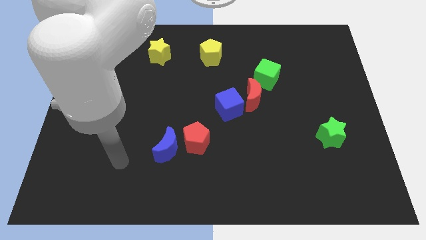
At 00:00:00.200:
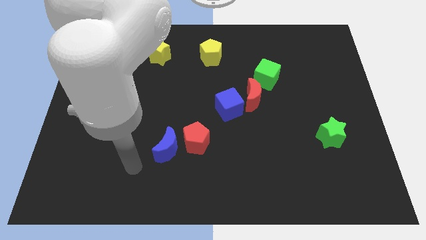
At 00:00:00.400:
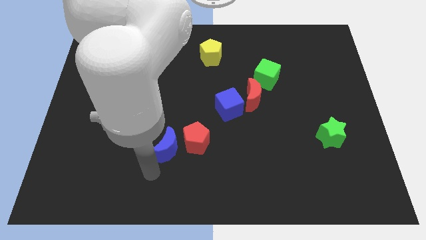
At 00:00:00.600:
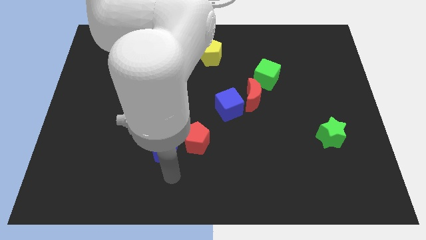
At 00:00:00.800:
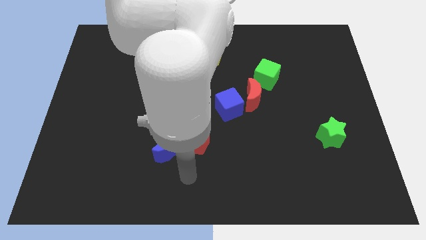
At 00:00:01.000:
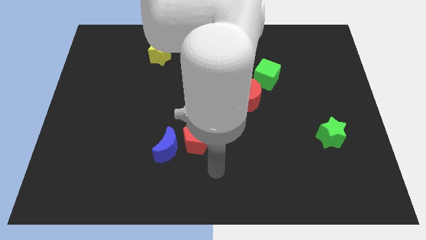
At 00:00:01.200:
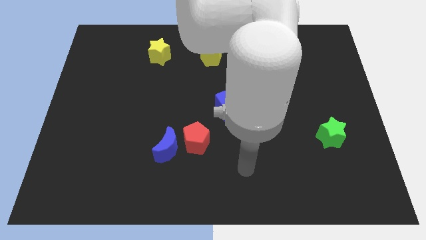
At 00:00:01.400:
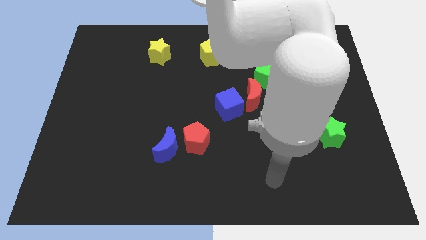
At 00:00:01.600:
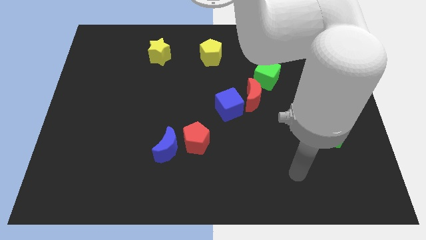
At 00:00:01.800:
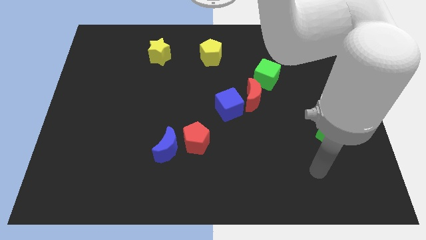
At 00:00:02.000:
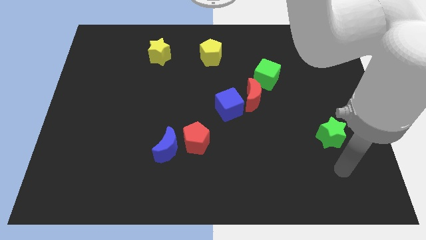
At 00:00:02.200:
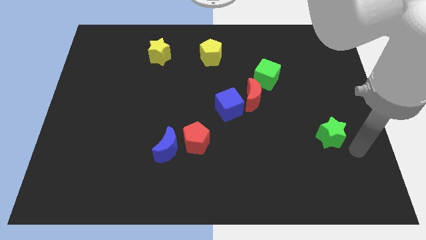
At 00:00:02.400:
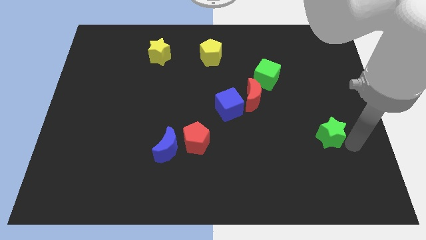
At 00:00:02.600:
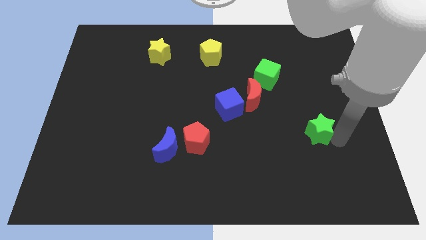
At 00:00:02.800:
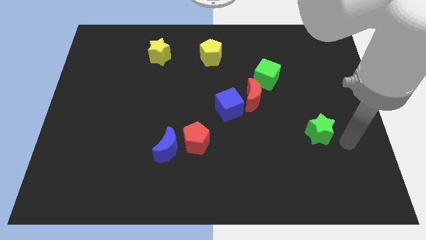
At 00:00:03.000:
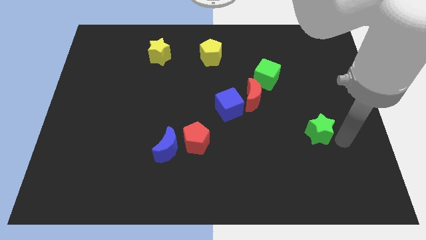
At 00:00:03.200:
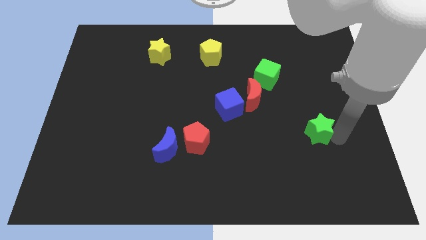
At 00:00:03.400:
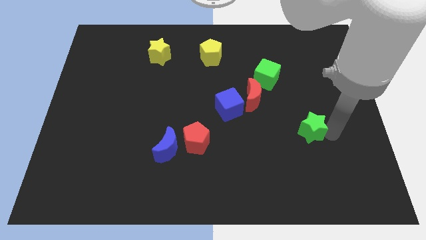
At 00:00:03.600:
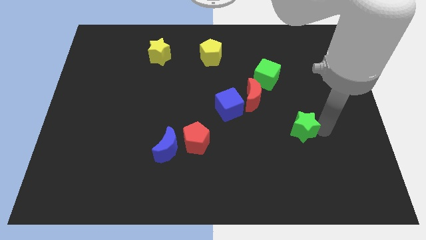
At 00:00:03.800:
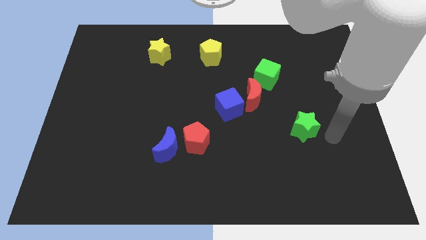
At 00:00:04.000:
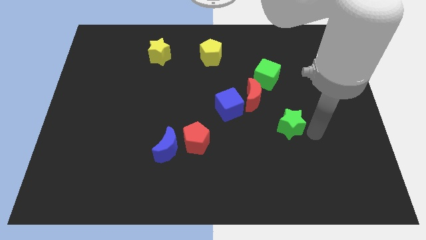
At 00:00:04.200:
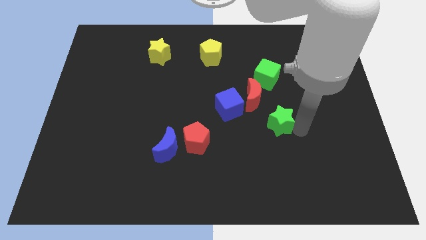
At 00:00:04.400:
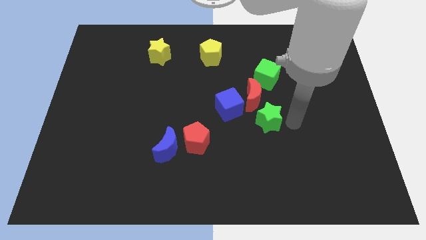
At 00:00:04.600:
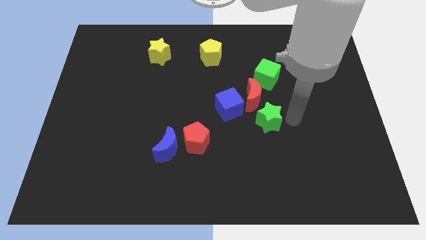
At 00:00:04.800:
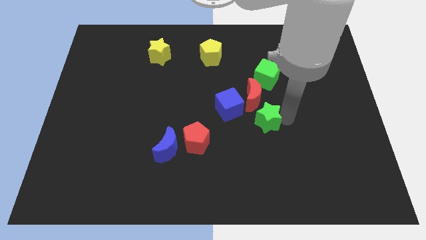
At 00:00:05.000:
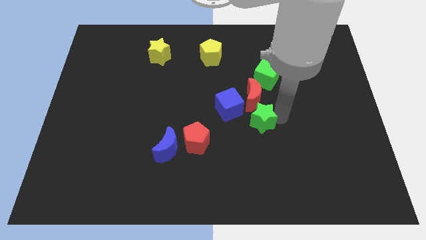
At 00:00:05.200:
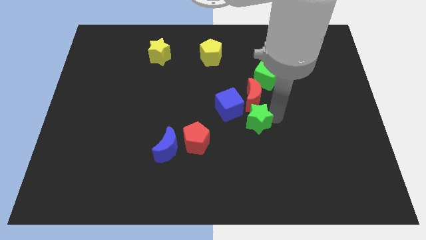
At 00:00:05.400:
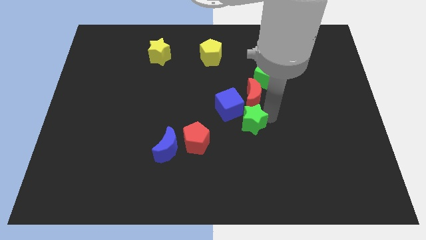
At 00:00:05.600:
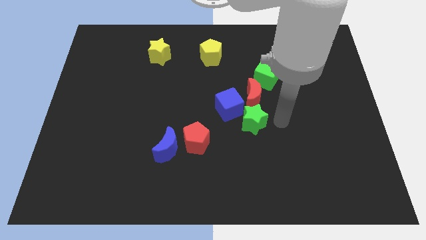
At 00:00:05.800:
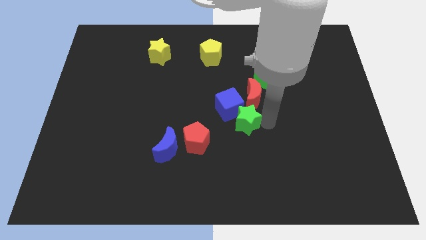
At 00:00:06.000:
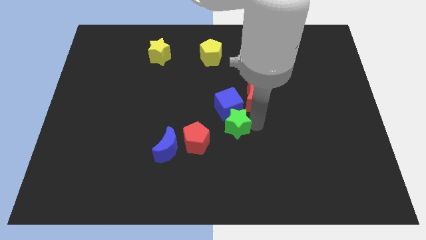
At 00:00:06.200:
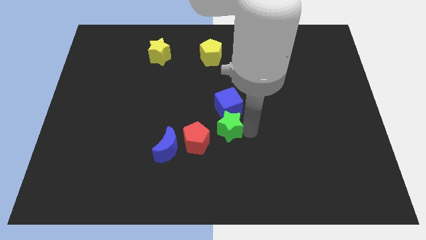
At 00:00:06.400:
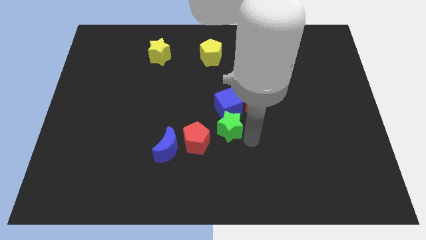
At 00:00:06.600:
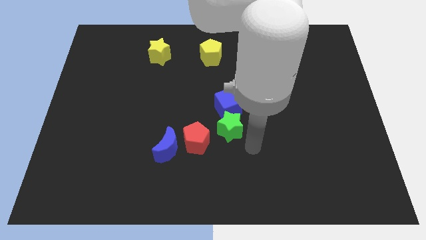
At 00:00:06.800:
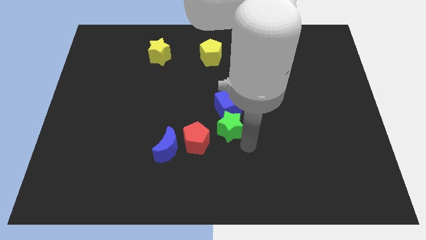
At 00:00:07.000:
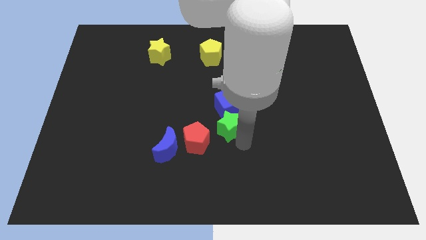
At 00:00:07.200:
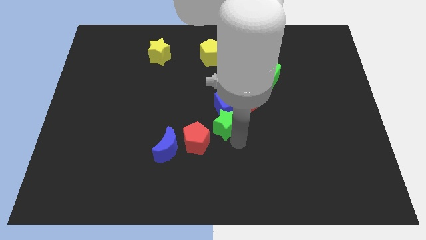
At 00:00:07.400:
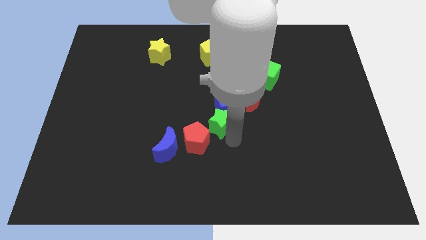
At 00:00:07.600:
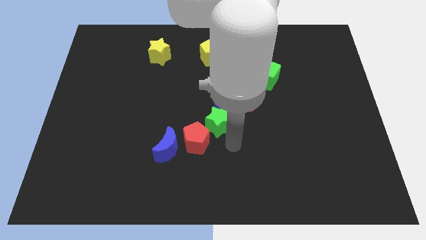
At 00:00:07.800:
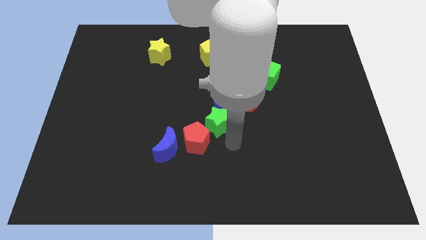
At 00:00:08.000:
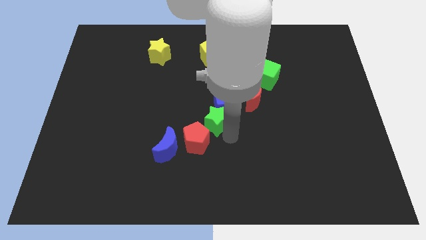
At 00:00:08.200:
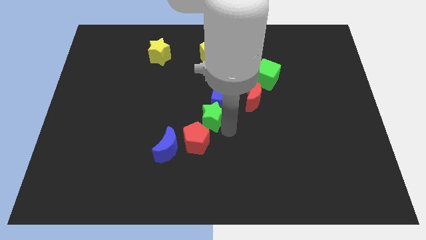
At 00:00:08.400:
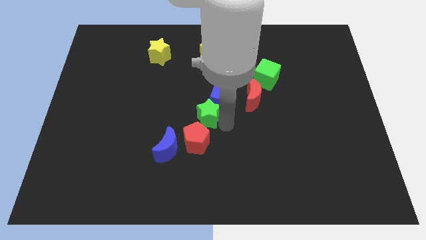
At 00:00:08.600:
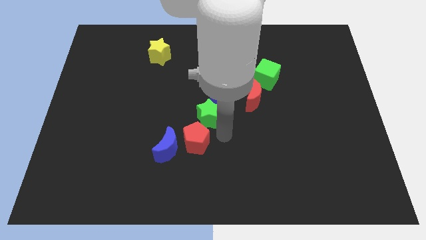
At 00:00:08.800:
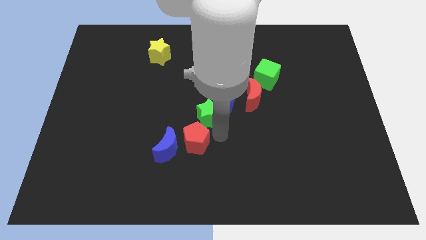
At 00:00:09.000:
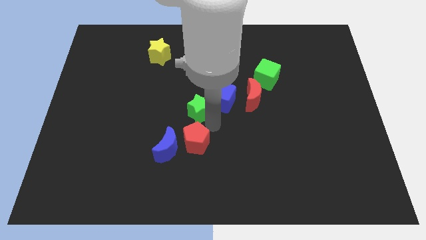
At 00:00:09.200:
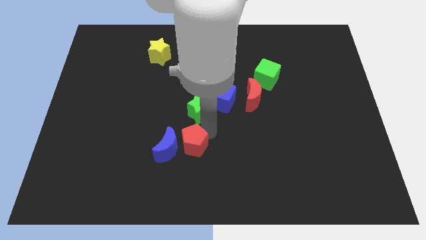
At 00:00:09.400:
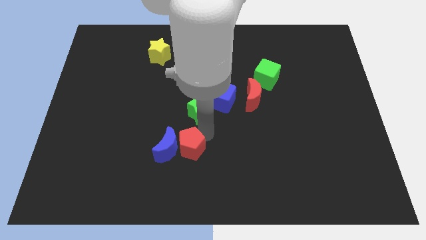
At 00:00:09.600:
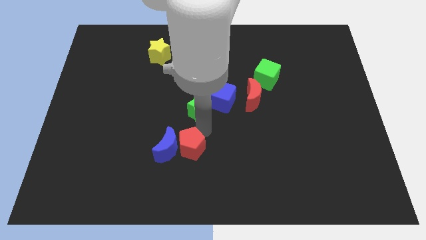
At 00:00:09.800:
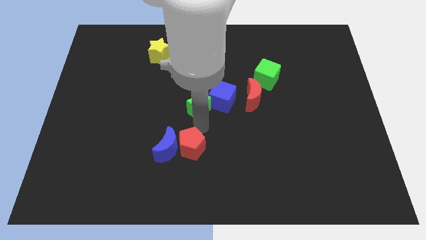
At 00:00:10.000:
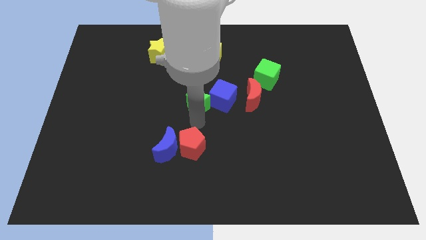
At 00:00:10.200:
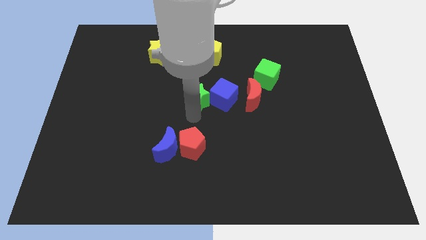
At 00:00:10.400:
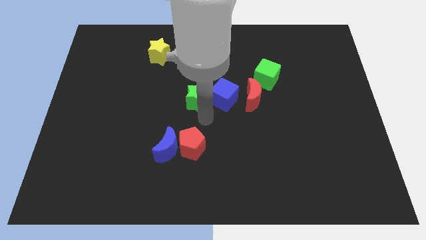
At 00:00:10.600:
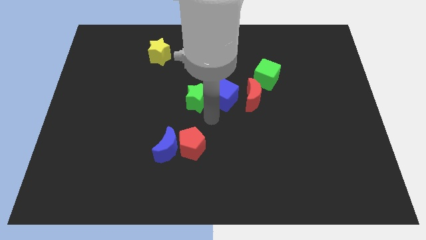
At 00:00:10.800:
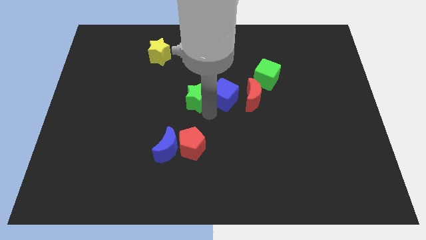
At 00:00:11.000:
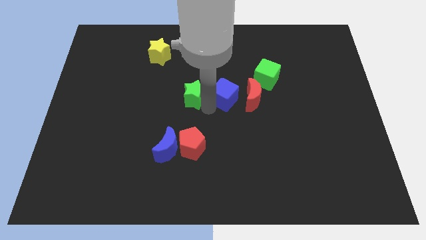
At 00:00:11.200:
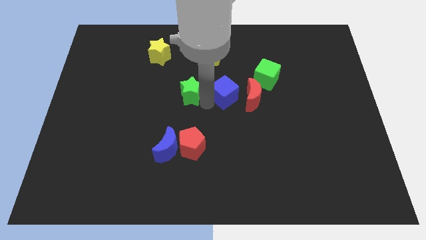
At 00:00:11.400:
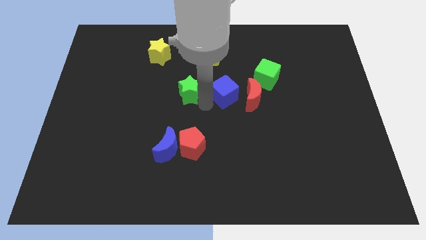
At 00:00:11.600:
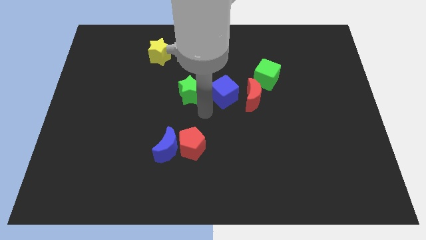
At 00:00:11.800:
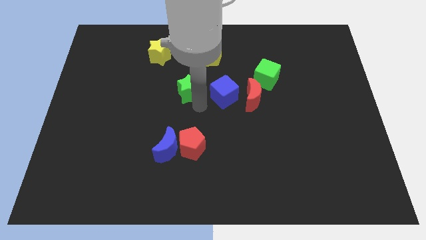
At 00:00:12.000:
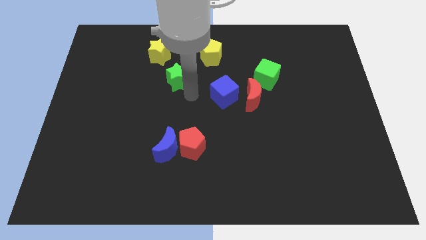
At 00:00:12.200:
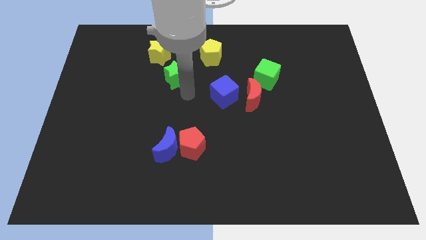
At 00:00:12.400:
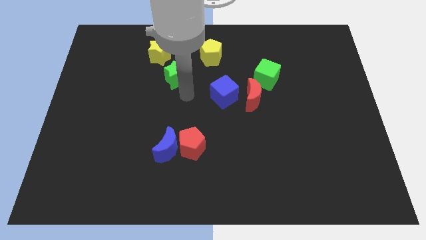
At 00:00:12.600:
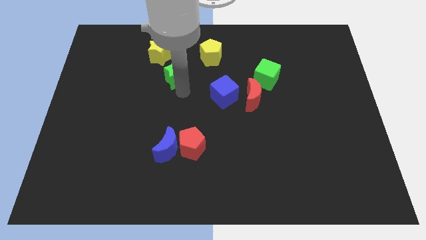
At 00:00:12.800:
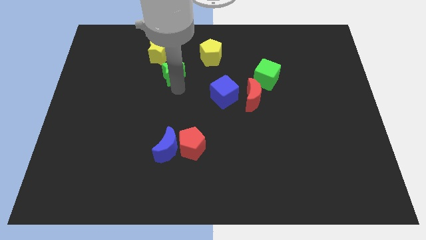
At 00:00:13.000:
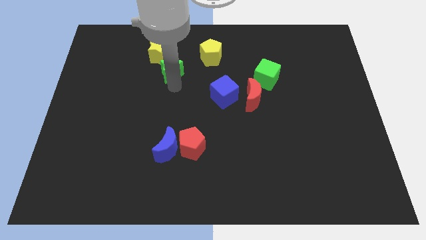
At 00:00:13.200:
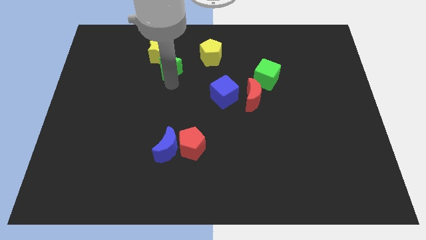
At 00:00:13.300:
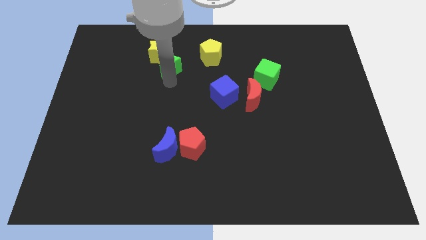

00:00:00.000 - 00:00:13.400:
slide the green star next to the yellow star

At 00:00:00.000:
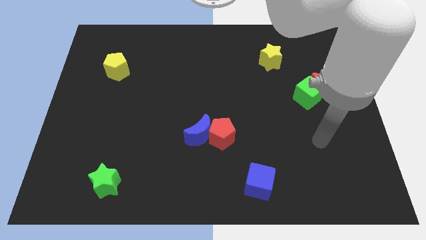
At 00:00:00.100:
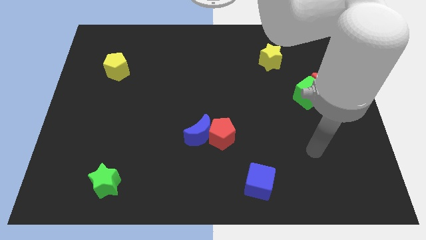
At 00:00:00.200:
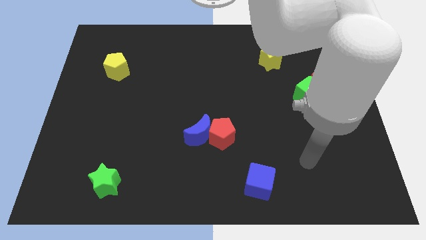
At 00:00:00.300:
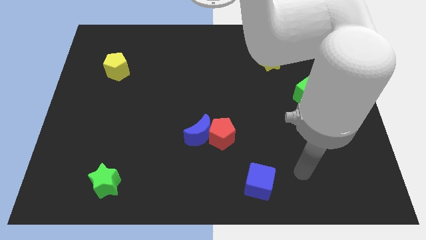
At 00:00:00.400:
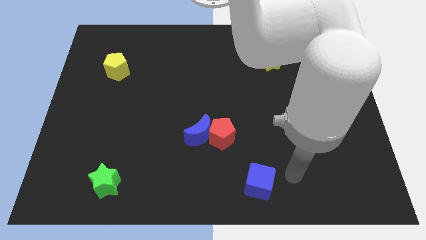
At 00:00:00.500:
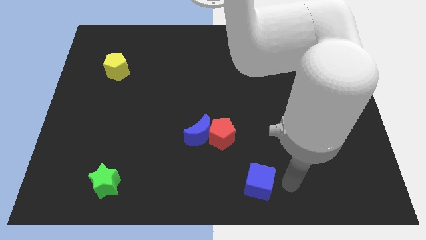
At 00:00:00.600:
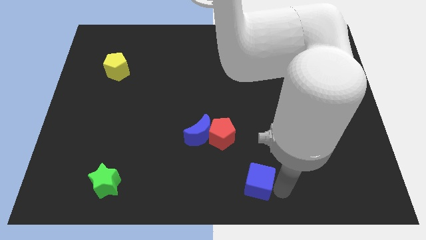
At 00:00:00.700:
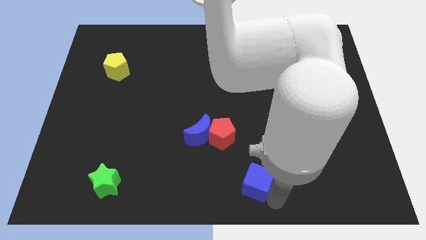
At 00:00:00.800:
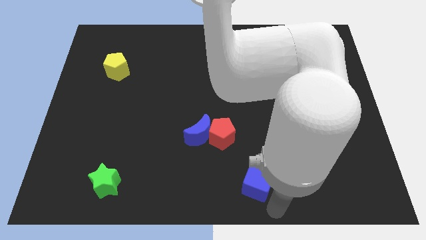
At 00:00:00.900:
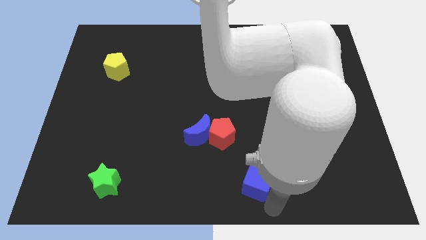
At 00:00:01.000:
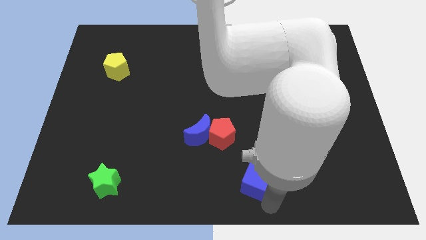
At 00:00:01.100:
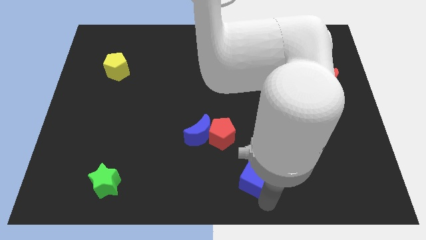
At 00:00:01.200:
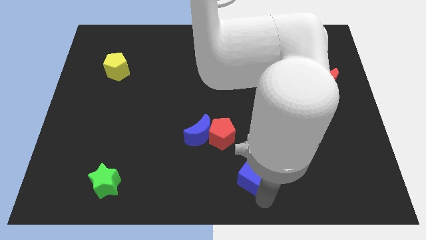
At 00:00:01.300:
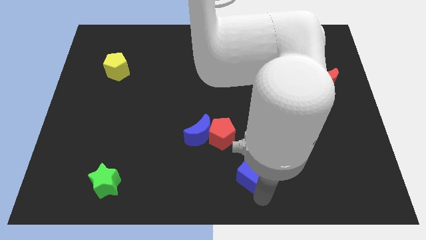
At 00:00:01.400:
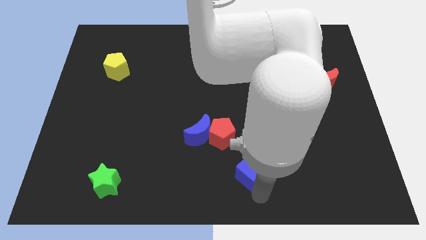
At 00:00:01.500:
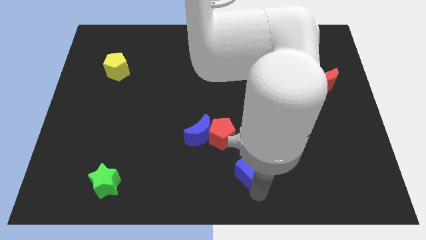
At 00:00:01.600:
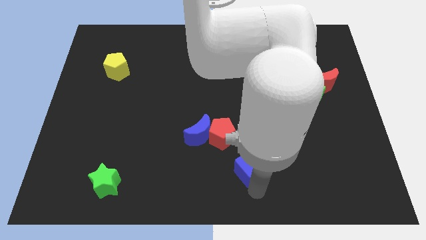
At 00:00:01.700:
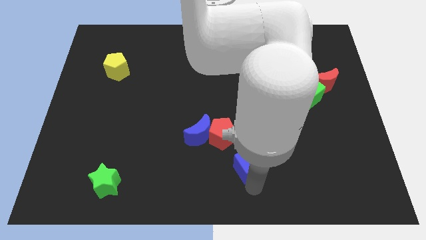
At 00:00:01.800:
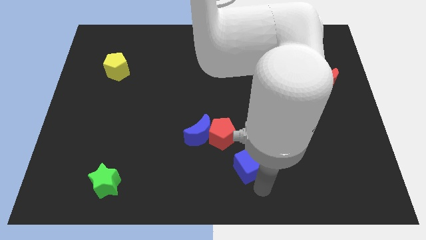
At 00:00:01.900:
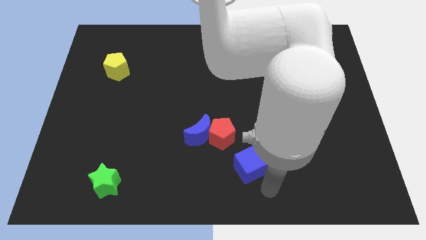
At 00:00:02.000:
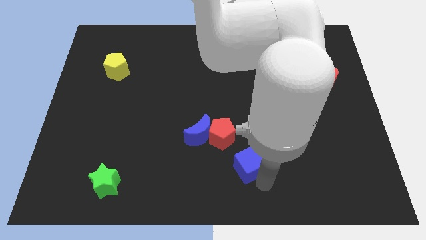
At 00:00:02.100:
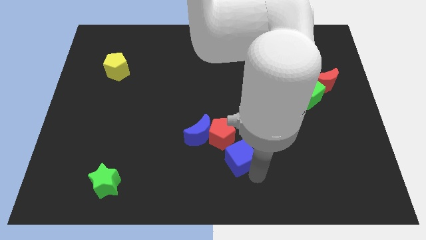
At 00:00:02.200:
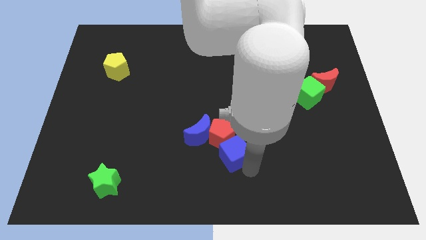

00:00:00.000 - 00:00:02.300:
slide the blue cube close to the red pentagon
